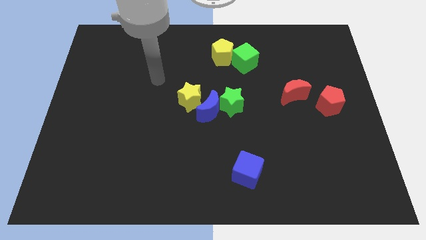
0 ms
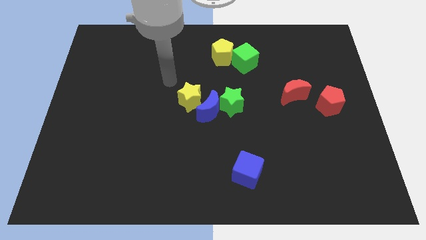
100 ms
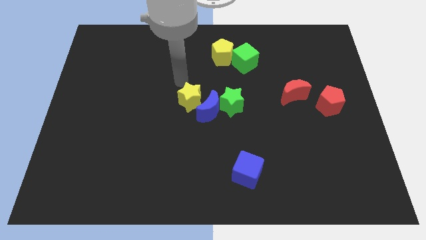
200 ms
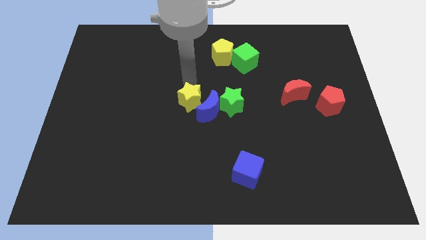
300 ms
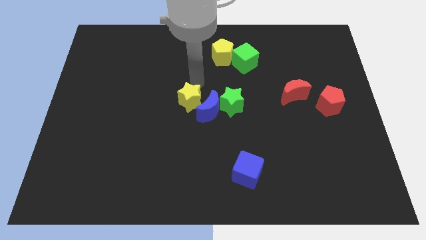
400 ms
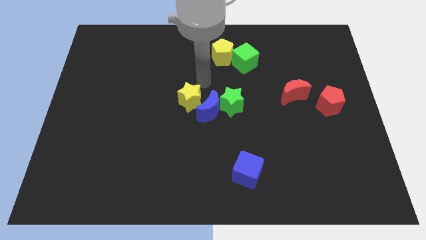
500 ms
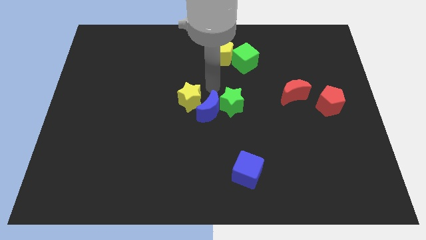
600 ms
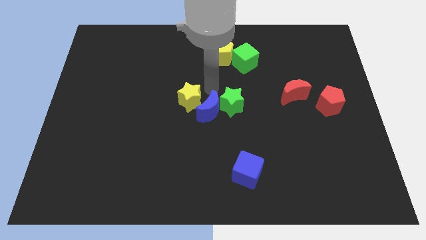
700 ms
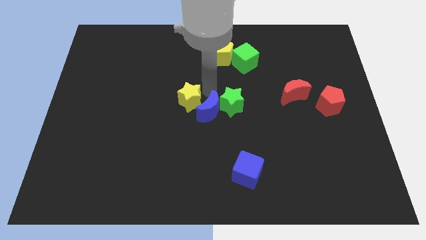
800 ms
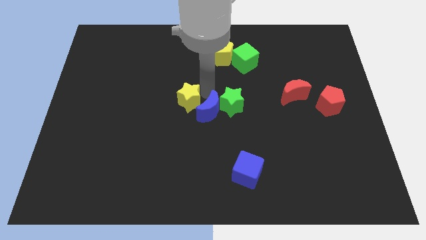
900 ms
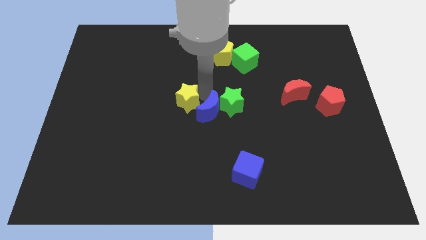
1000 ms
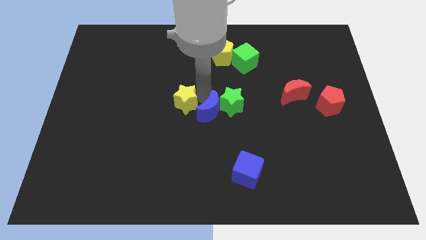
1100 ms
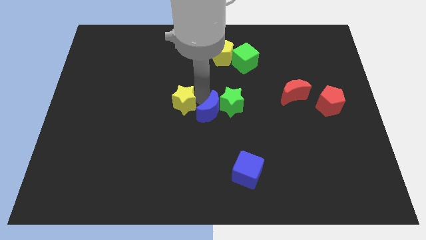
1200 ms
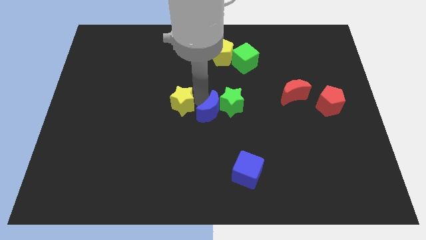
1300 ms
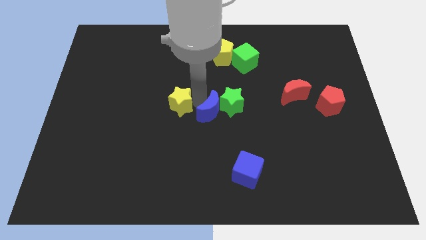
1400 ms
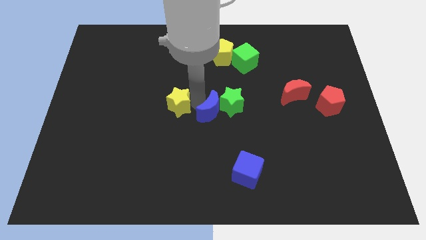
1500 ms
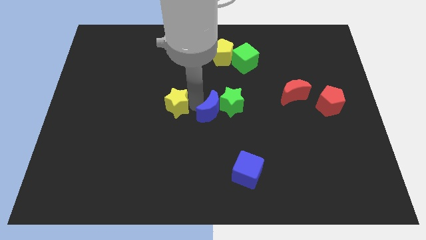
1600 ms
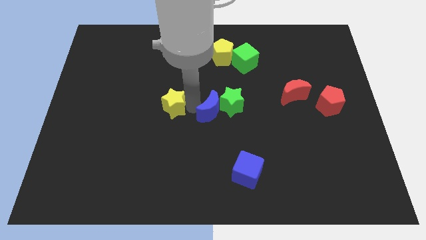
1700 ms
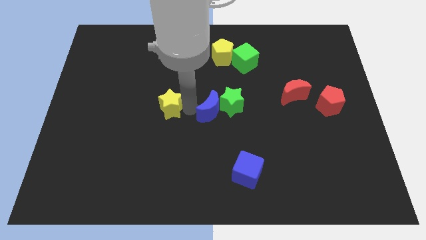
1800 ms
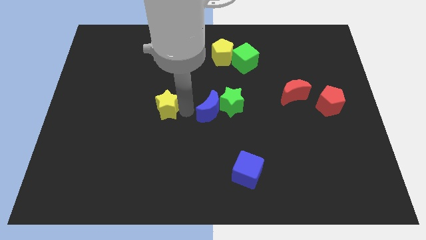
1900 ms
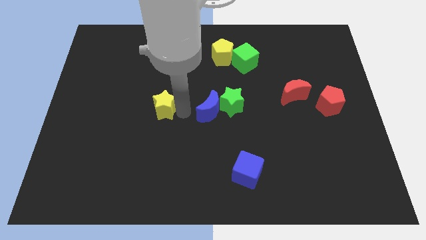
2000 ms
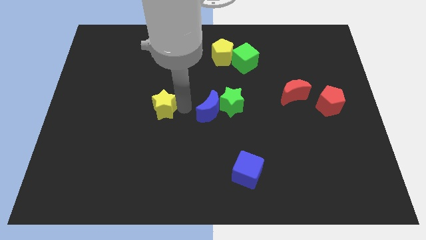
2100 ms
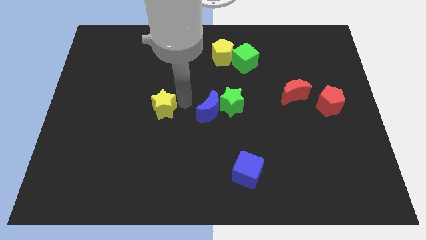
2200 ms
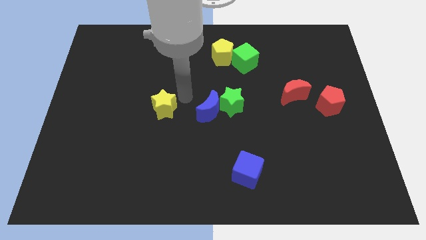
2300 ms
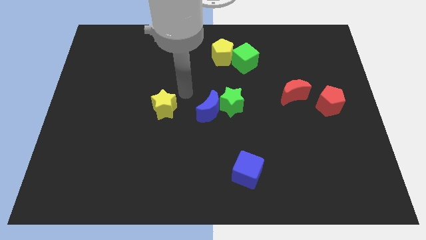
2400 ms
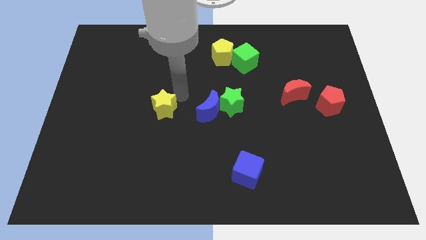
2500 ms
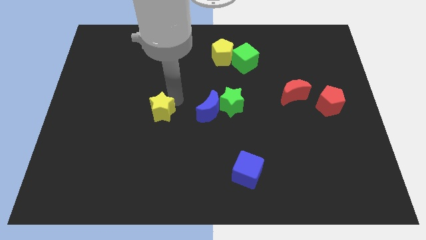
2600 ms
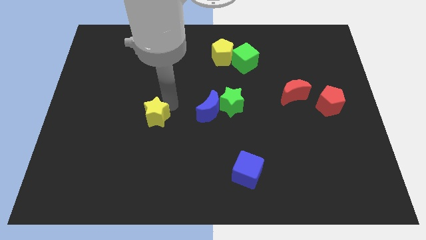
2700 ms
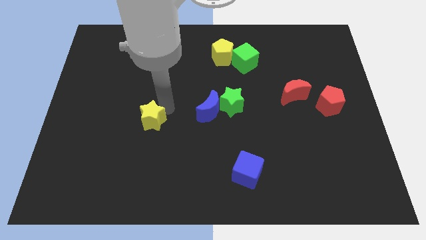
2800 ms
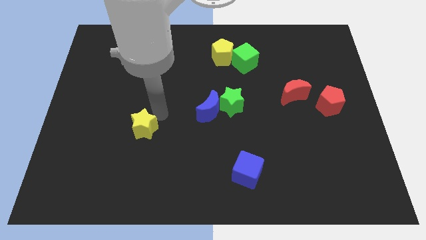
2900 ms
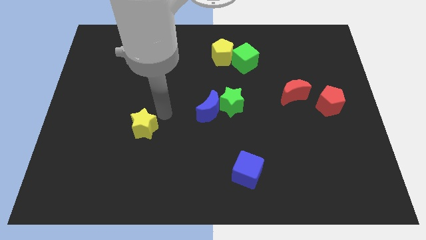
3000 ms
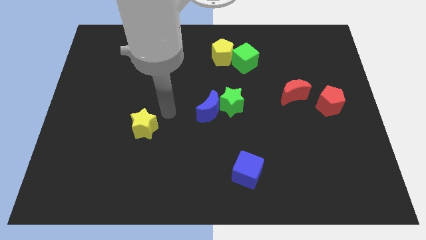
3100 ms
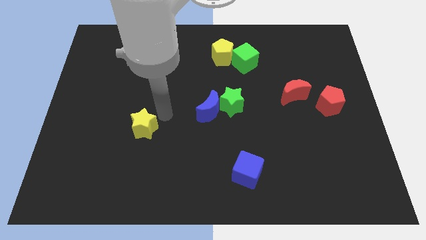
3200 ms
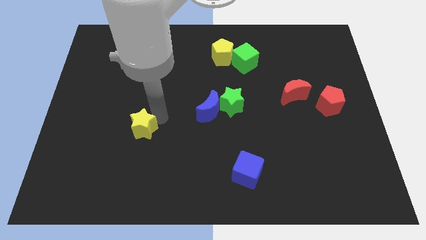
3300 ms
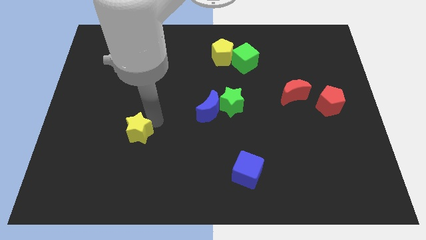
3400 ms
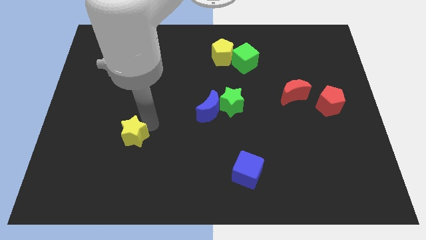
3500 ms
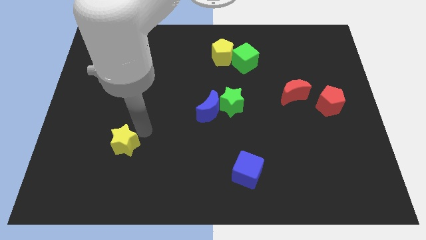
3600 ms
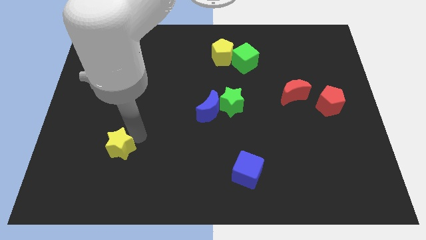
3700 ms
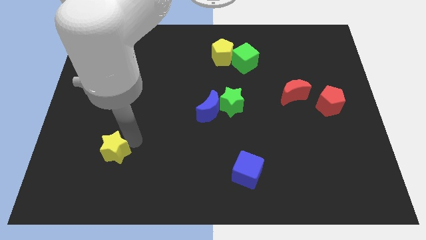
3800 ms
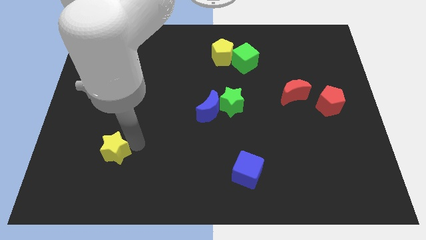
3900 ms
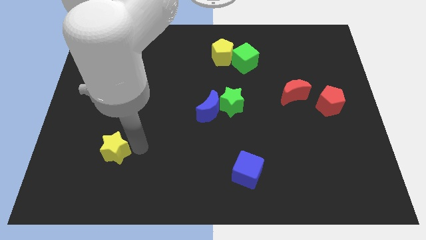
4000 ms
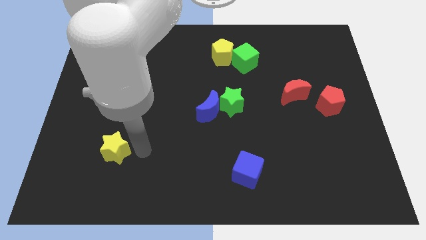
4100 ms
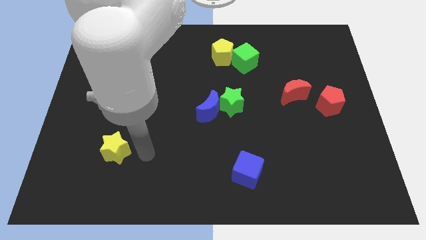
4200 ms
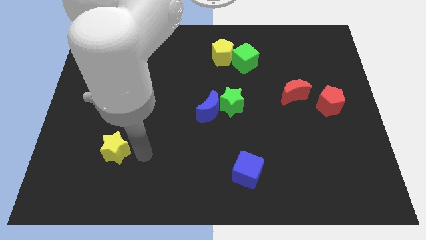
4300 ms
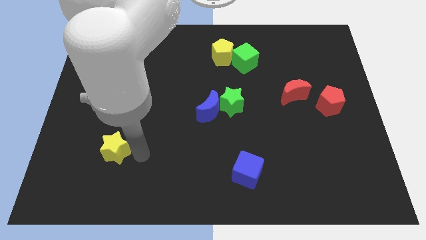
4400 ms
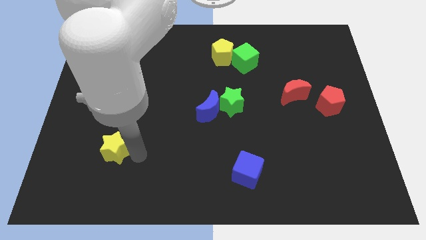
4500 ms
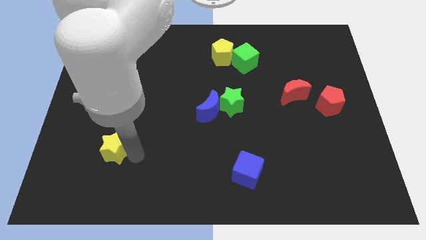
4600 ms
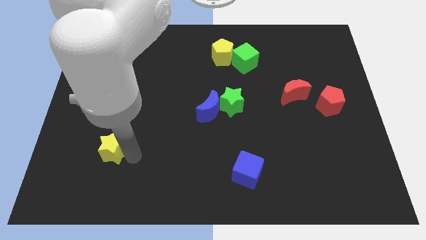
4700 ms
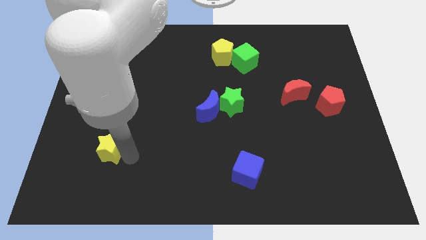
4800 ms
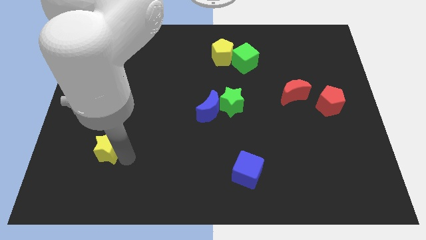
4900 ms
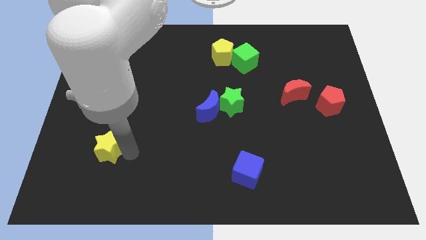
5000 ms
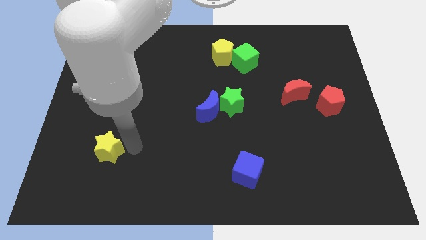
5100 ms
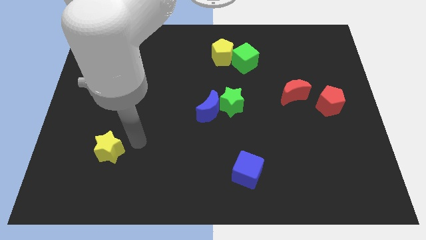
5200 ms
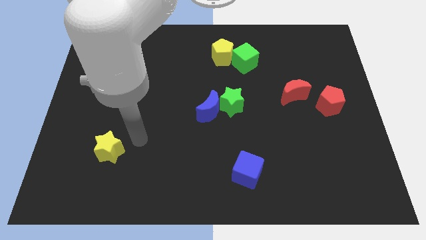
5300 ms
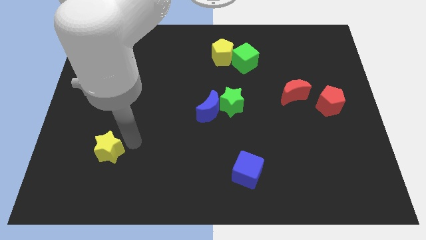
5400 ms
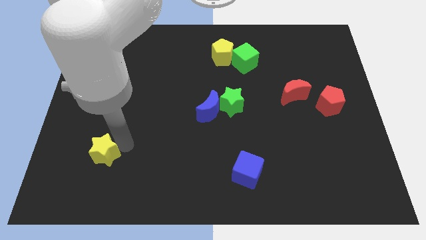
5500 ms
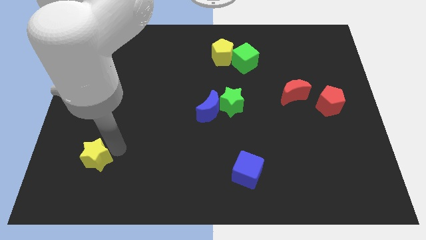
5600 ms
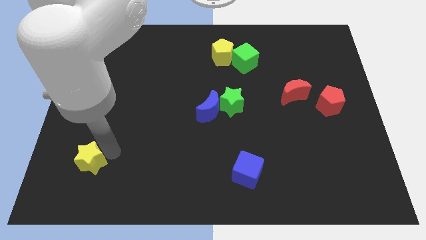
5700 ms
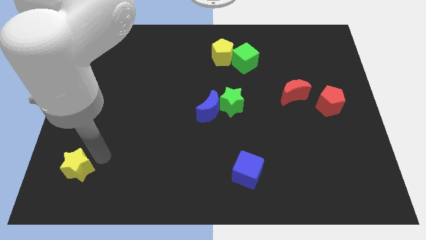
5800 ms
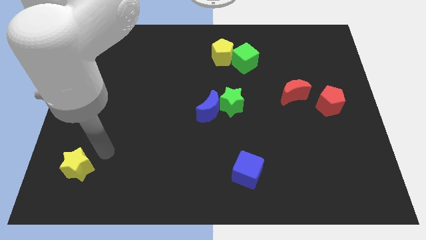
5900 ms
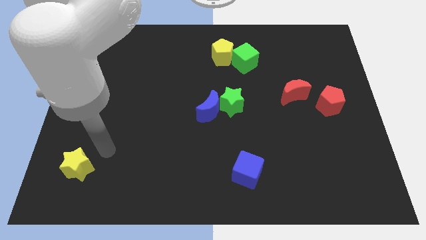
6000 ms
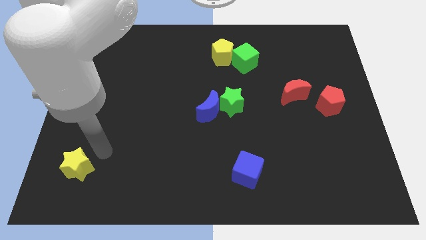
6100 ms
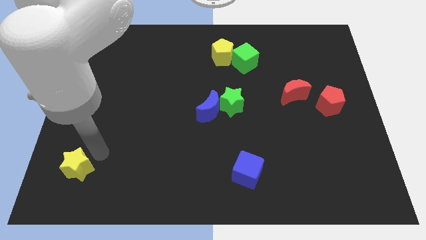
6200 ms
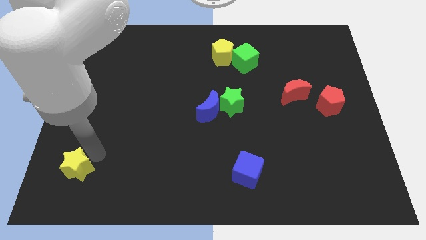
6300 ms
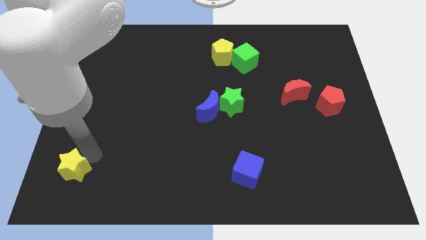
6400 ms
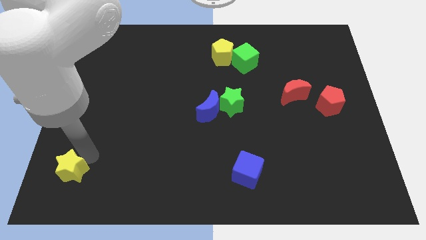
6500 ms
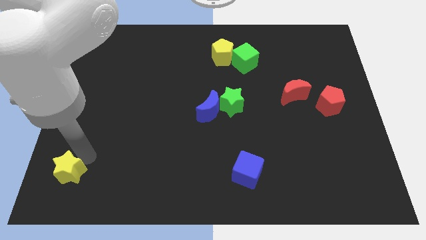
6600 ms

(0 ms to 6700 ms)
slide the yellow star to the bottom left of the board
